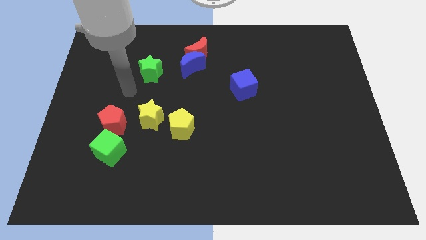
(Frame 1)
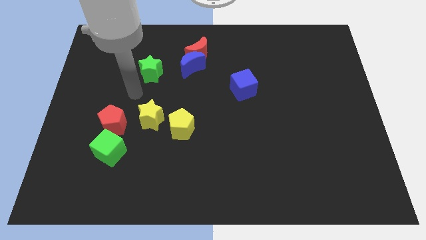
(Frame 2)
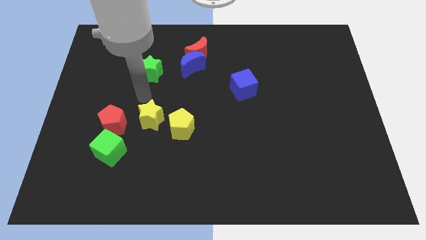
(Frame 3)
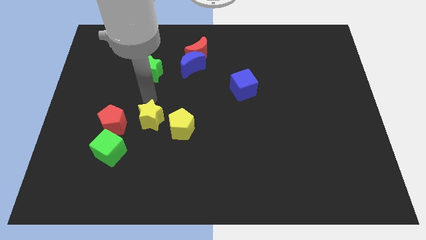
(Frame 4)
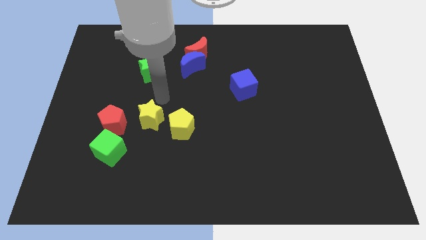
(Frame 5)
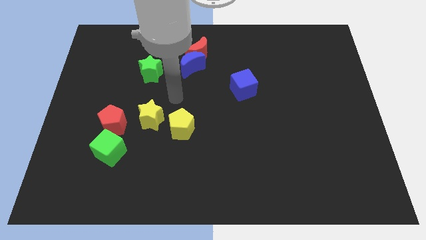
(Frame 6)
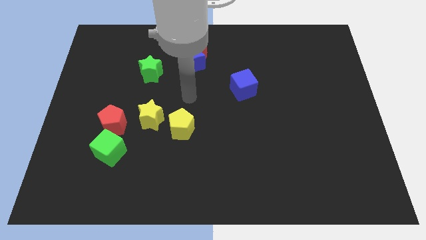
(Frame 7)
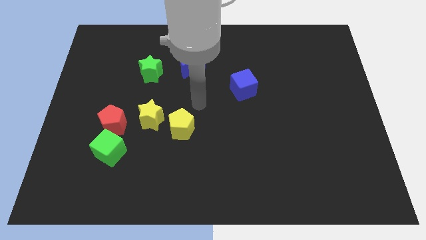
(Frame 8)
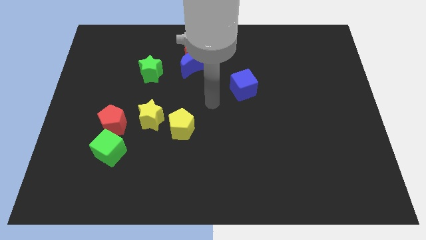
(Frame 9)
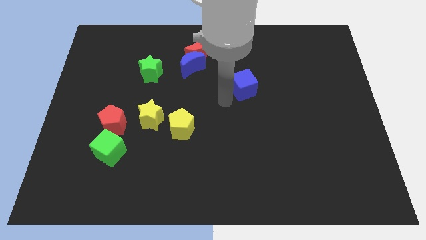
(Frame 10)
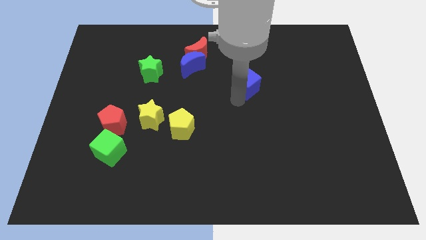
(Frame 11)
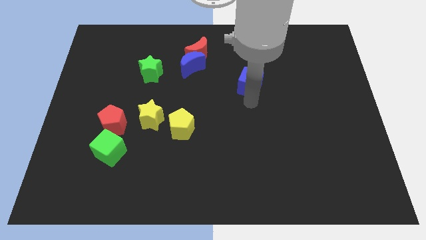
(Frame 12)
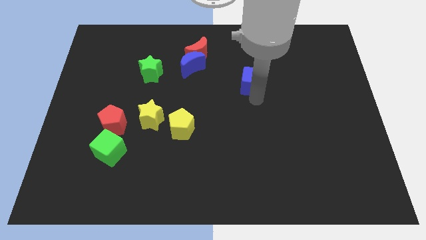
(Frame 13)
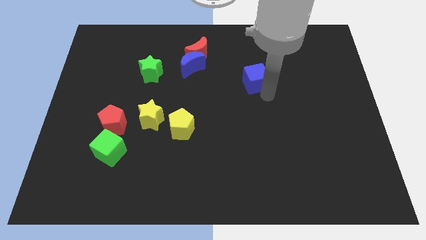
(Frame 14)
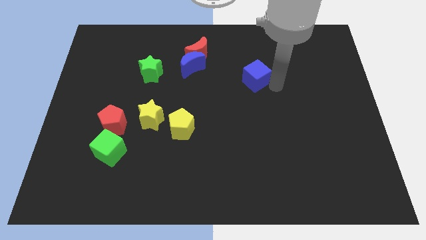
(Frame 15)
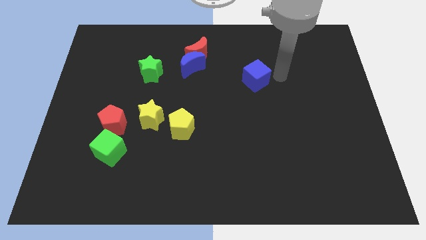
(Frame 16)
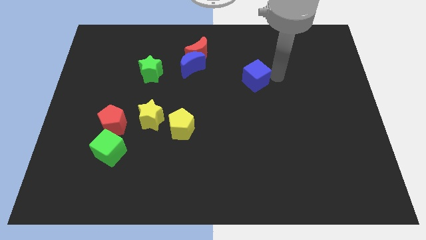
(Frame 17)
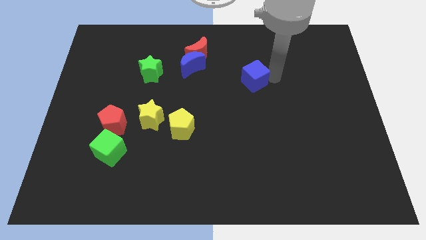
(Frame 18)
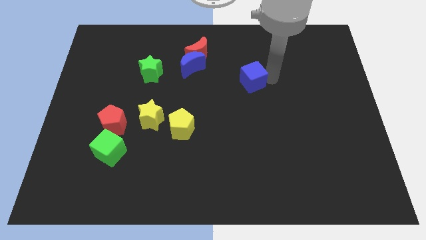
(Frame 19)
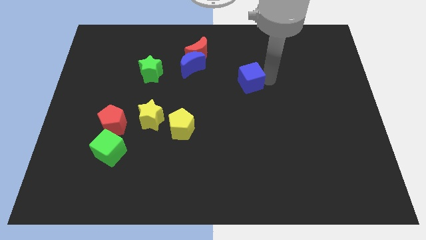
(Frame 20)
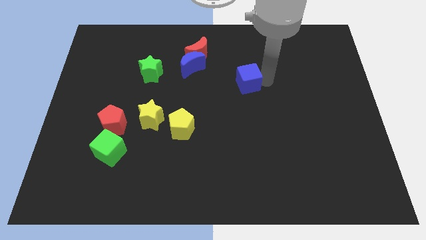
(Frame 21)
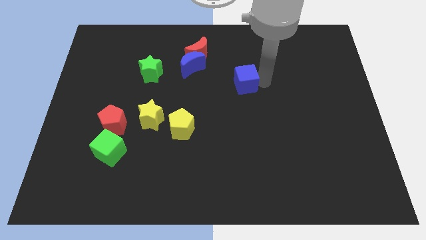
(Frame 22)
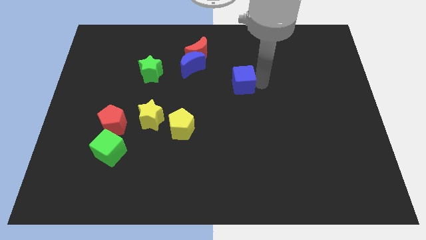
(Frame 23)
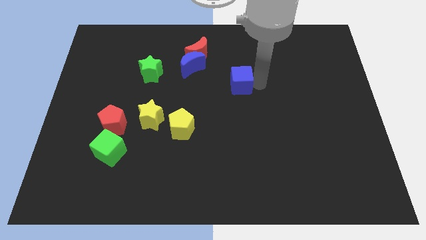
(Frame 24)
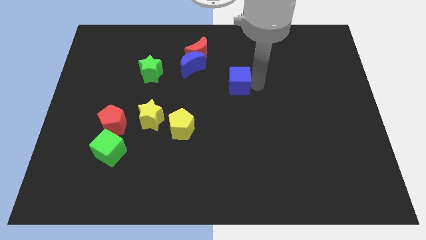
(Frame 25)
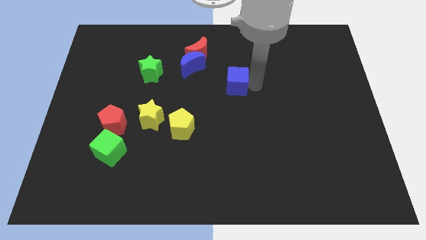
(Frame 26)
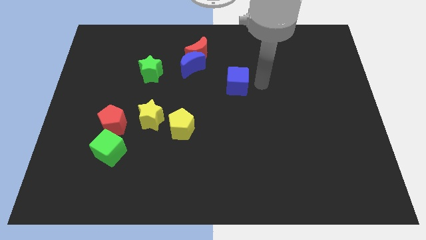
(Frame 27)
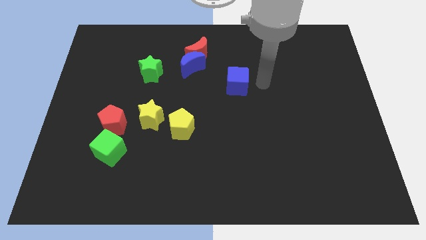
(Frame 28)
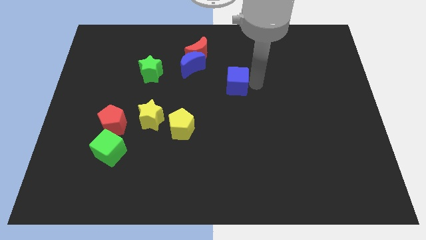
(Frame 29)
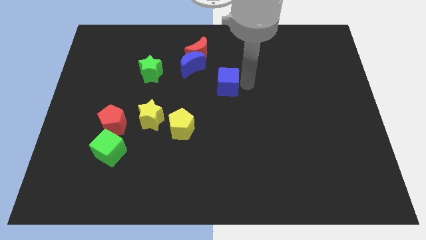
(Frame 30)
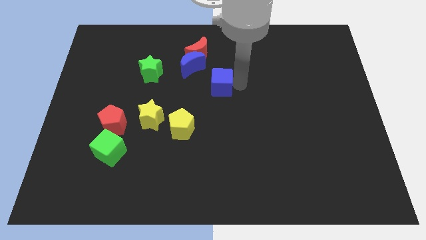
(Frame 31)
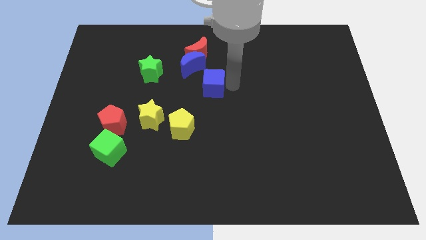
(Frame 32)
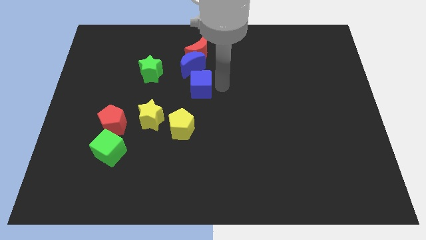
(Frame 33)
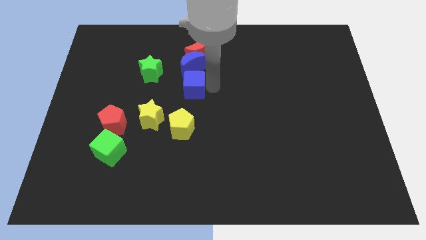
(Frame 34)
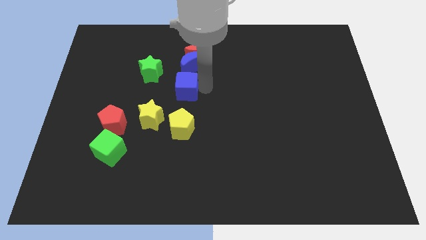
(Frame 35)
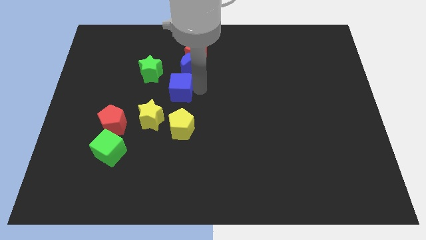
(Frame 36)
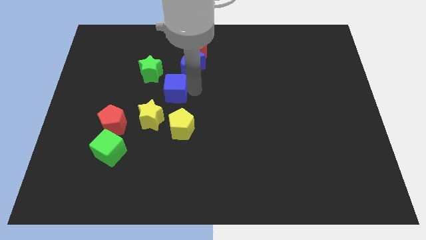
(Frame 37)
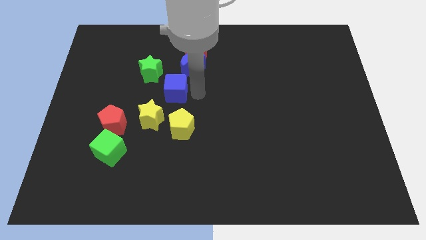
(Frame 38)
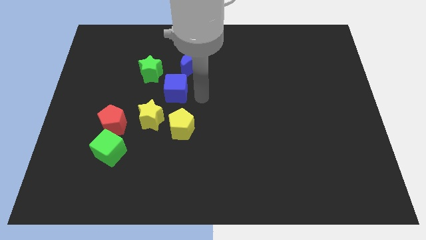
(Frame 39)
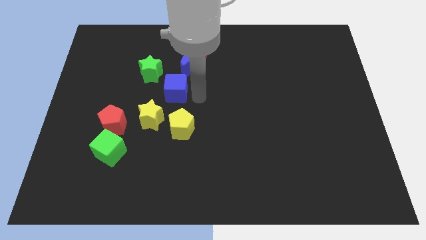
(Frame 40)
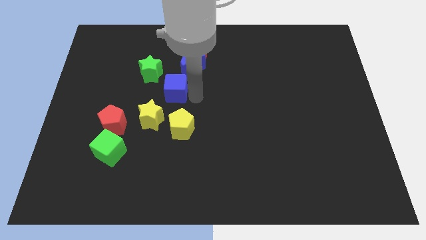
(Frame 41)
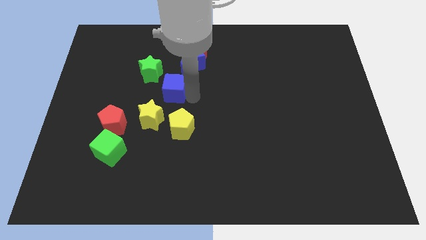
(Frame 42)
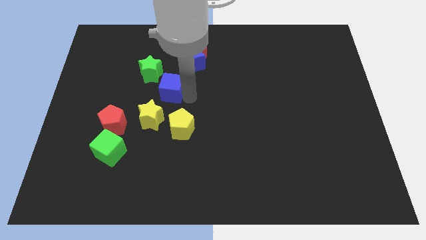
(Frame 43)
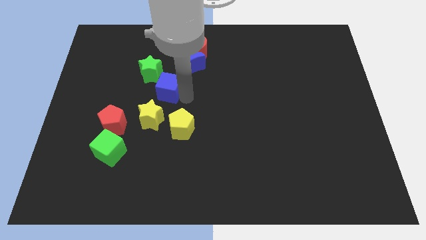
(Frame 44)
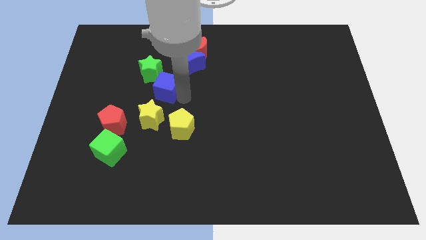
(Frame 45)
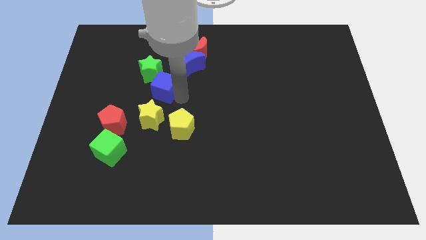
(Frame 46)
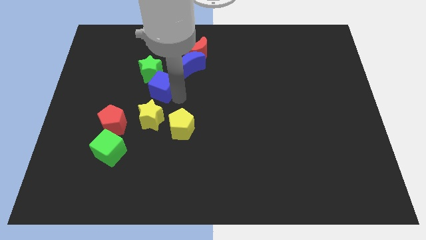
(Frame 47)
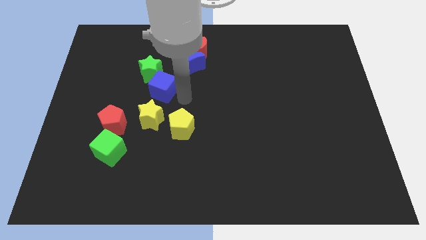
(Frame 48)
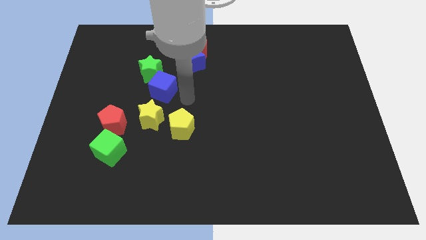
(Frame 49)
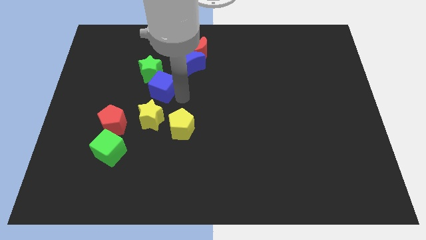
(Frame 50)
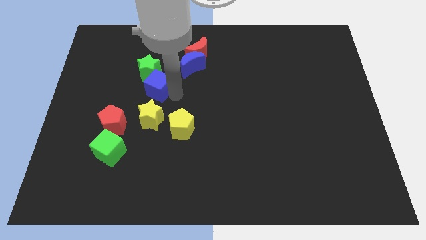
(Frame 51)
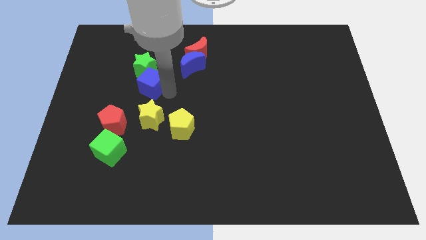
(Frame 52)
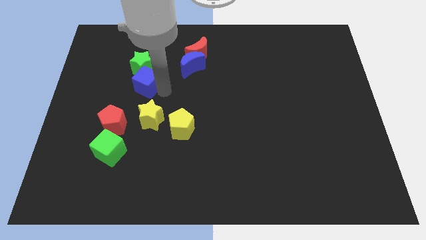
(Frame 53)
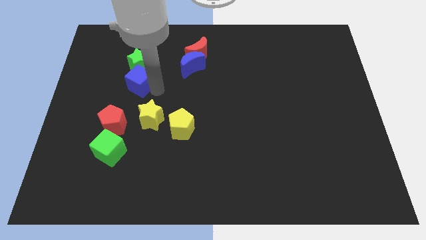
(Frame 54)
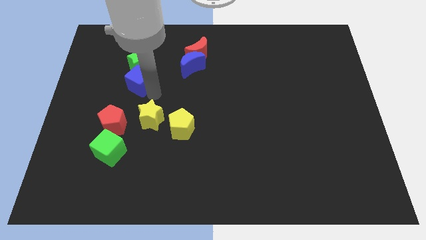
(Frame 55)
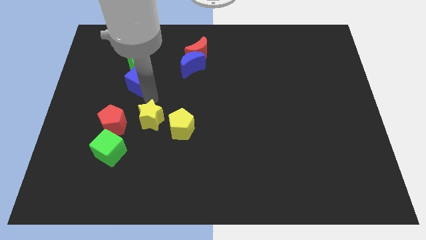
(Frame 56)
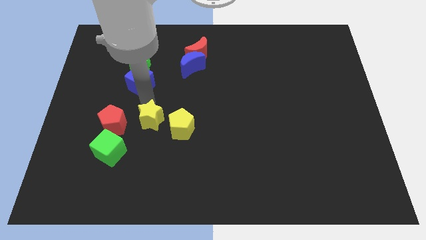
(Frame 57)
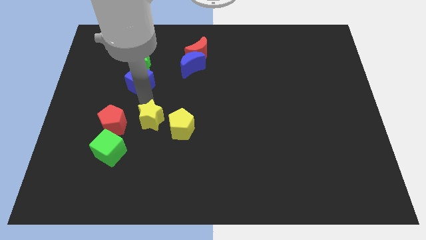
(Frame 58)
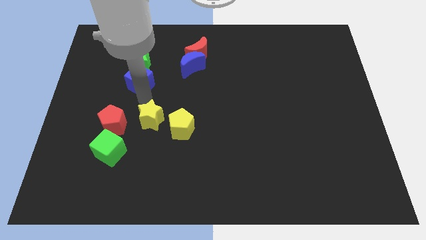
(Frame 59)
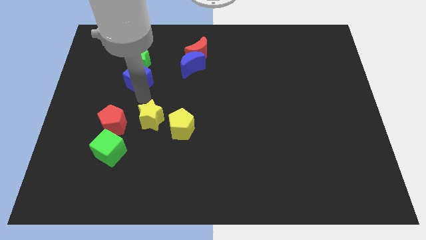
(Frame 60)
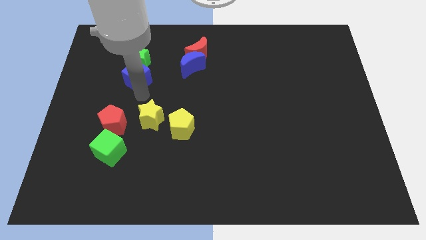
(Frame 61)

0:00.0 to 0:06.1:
slide the blue cube to the left side of the blue moon

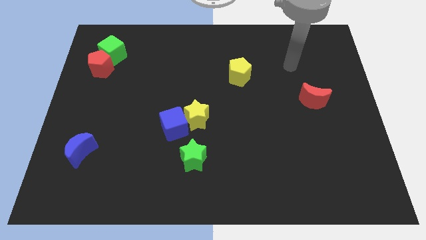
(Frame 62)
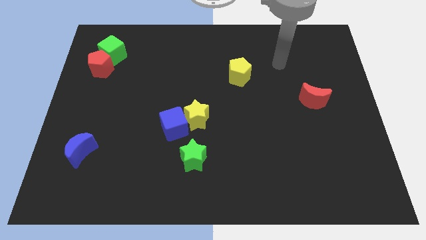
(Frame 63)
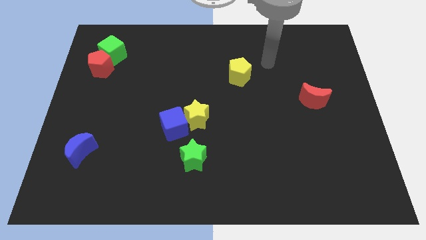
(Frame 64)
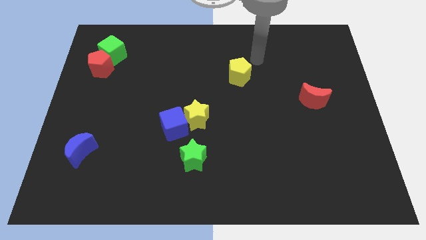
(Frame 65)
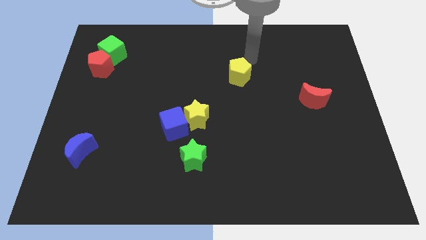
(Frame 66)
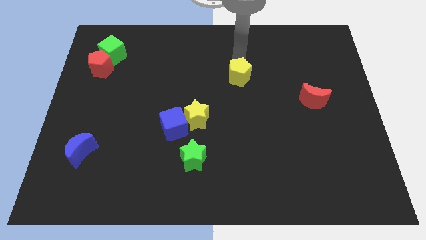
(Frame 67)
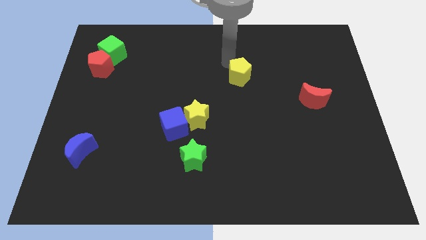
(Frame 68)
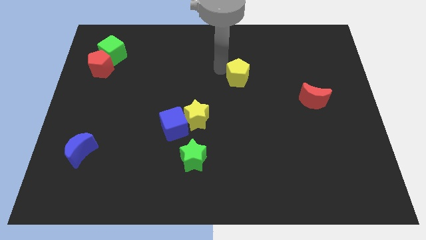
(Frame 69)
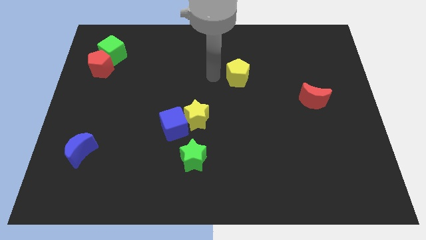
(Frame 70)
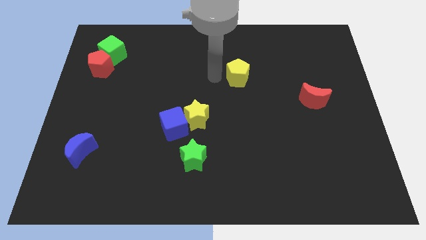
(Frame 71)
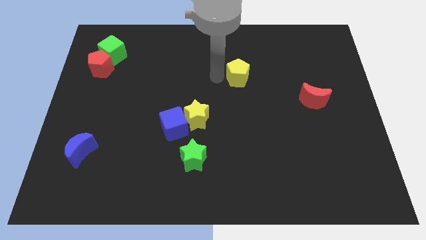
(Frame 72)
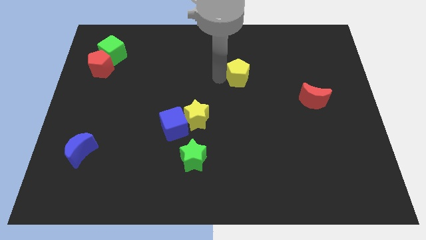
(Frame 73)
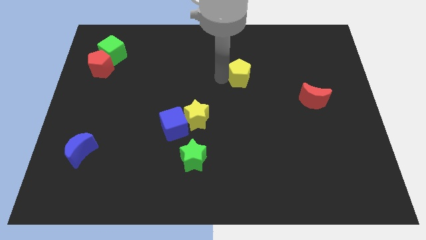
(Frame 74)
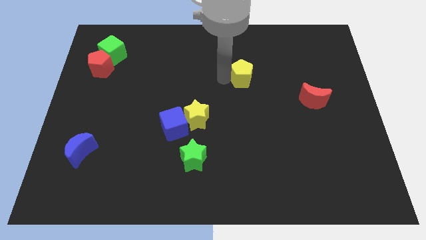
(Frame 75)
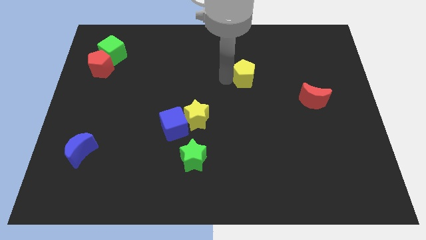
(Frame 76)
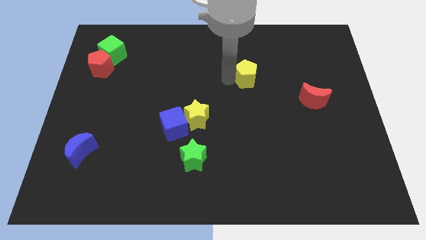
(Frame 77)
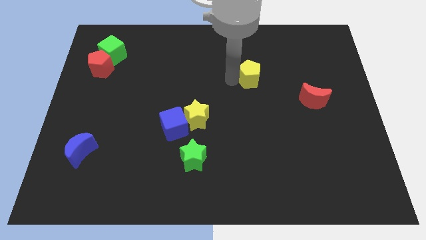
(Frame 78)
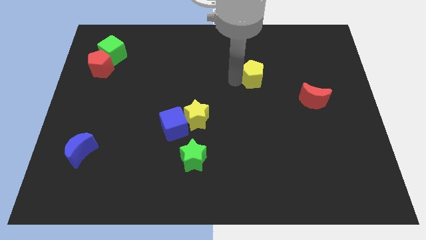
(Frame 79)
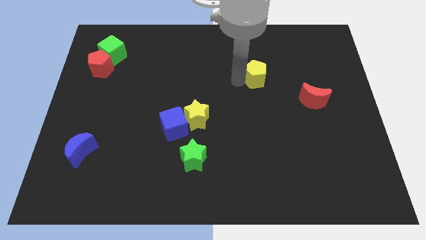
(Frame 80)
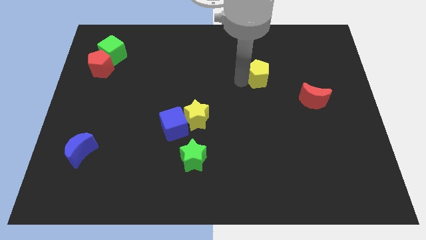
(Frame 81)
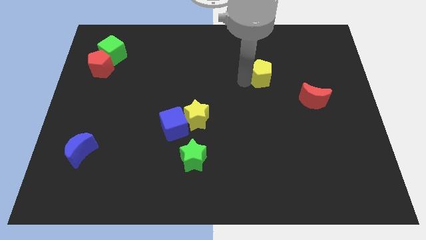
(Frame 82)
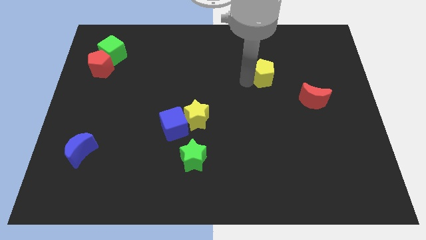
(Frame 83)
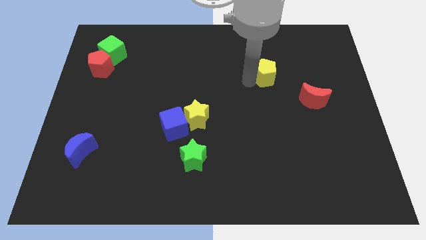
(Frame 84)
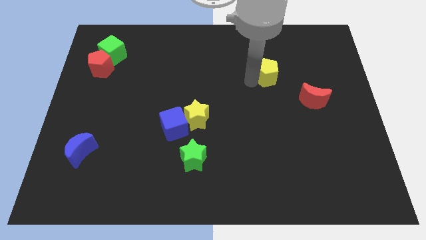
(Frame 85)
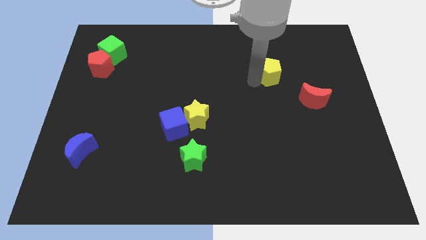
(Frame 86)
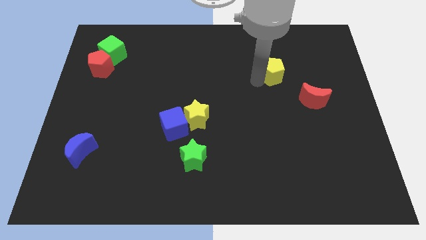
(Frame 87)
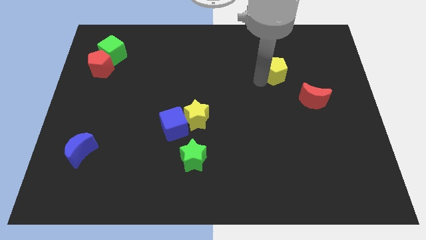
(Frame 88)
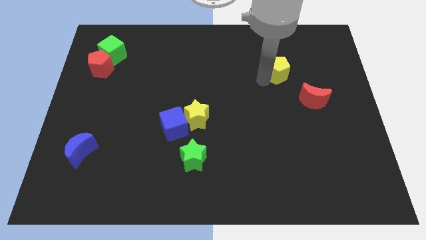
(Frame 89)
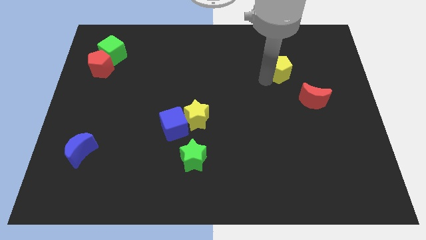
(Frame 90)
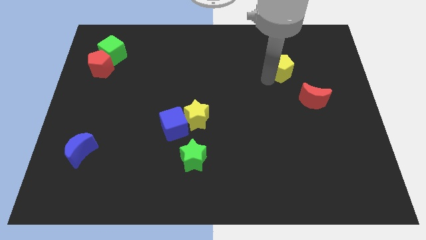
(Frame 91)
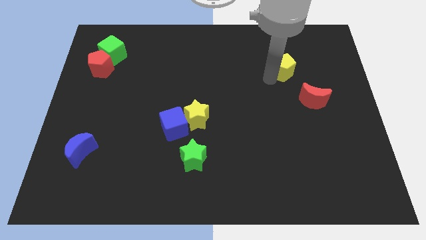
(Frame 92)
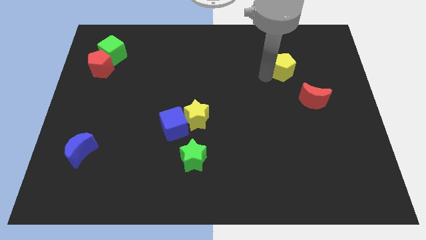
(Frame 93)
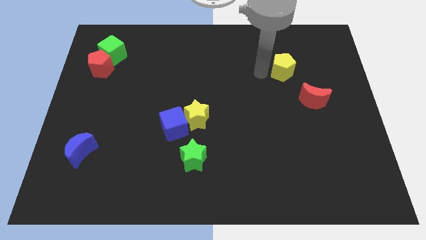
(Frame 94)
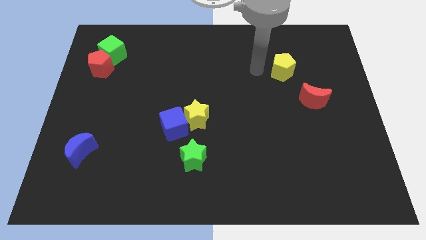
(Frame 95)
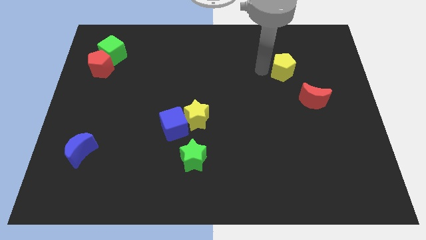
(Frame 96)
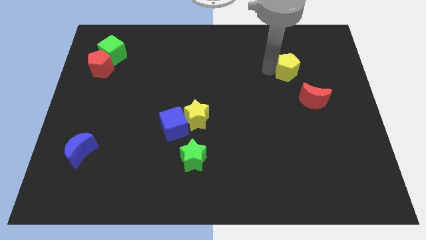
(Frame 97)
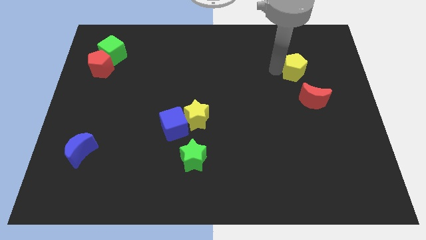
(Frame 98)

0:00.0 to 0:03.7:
move the yellow pentagon to the top side of the red moon
